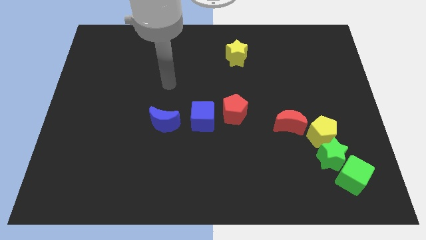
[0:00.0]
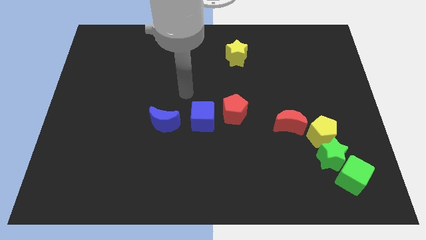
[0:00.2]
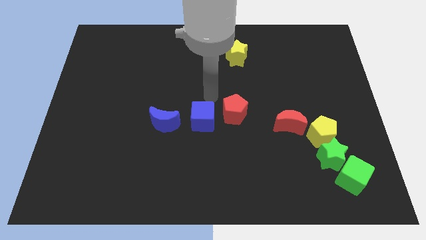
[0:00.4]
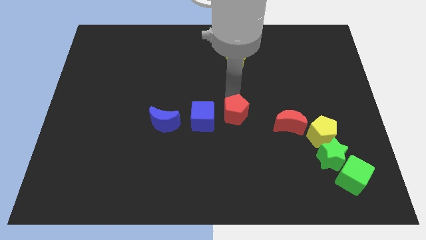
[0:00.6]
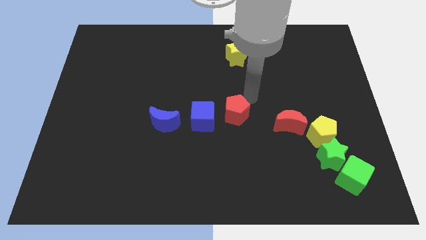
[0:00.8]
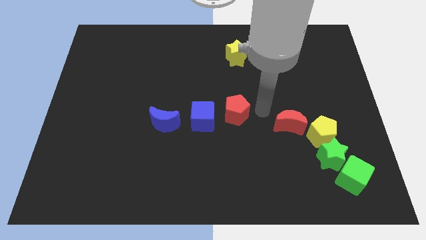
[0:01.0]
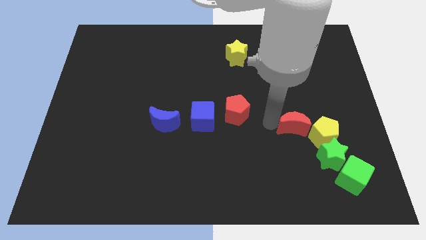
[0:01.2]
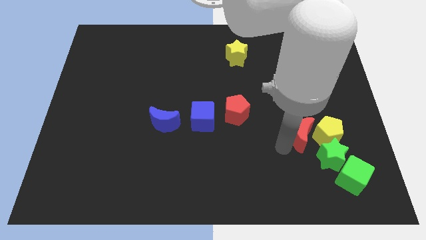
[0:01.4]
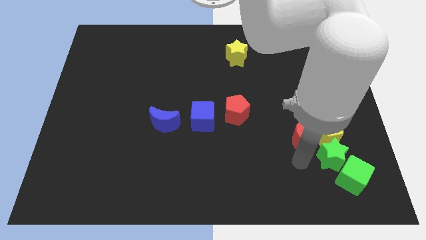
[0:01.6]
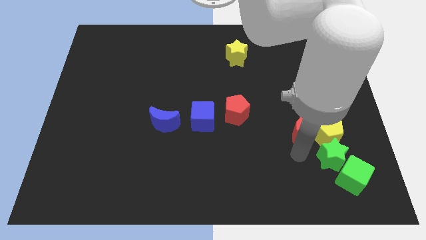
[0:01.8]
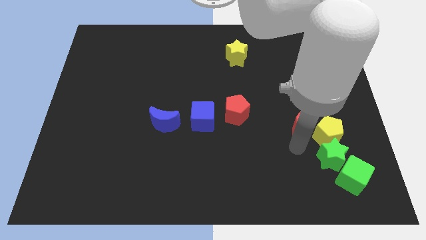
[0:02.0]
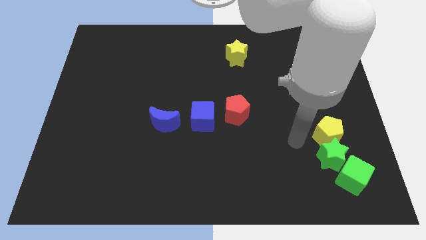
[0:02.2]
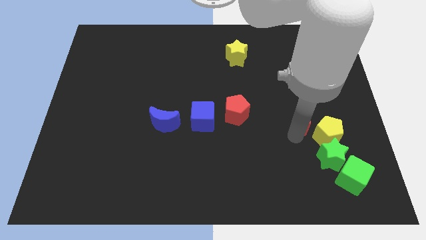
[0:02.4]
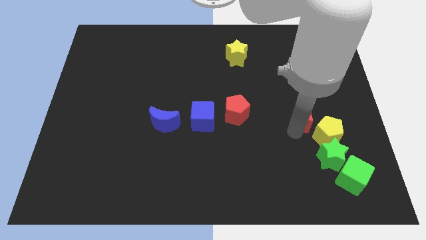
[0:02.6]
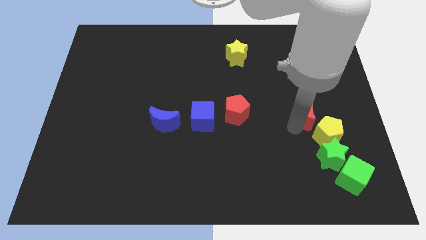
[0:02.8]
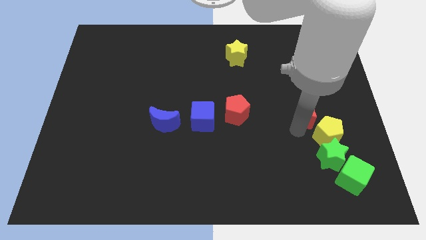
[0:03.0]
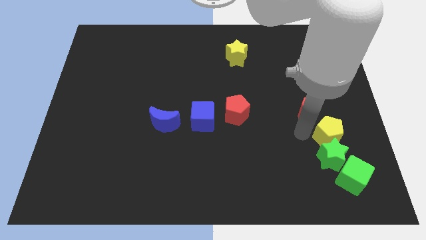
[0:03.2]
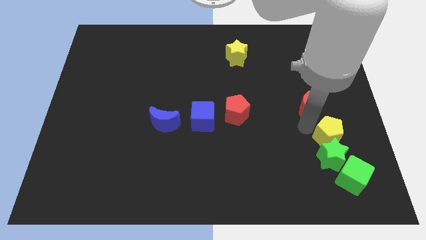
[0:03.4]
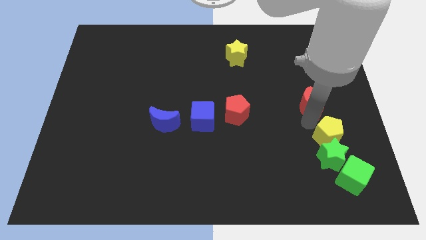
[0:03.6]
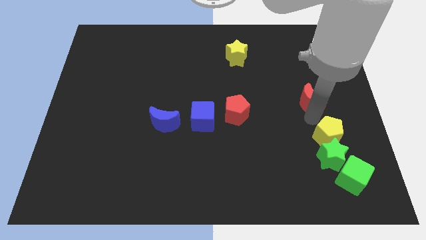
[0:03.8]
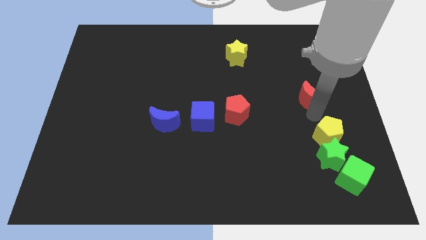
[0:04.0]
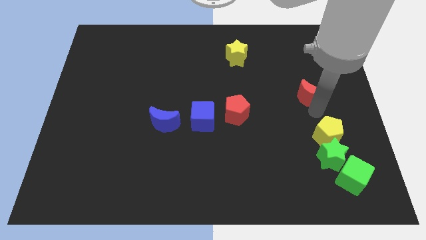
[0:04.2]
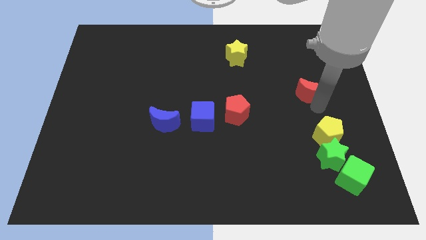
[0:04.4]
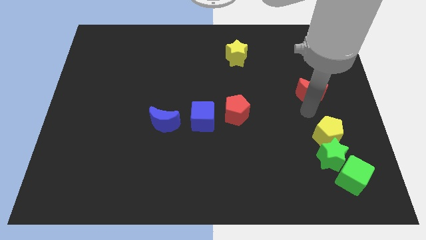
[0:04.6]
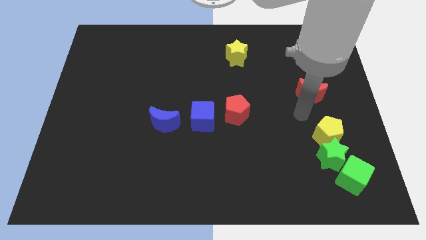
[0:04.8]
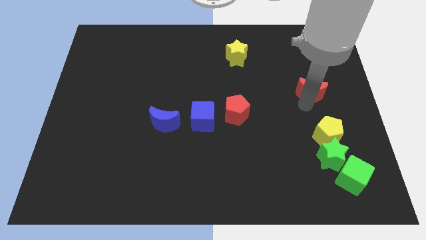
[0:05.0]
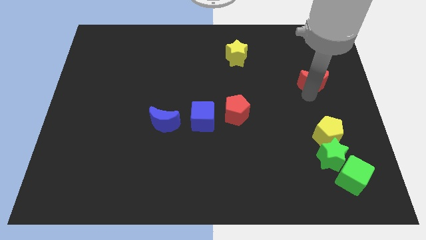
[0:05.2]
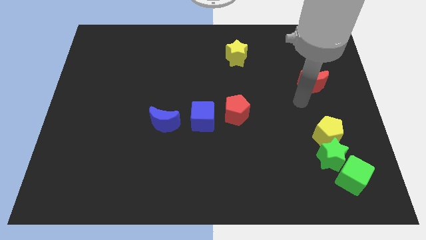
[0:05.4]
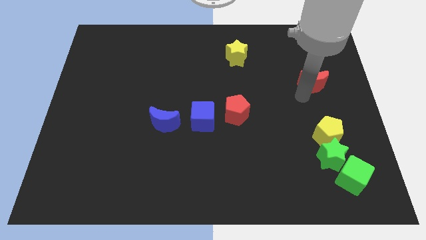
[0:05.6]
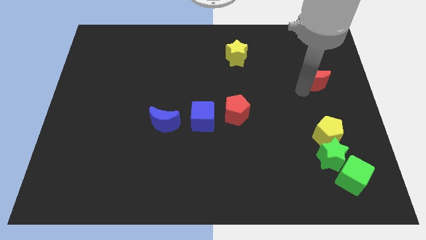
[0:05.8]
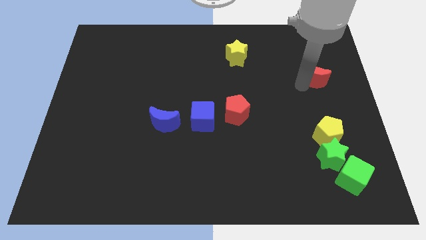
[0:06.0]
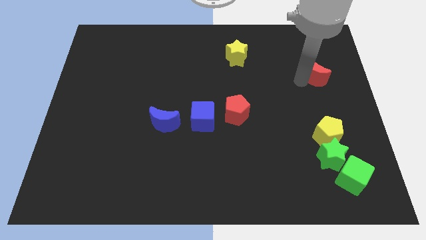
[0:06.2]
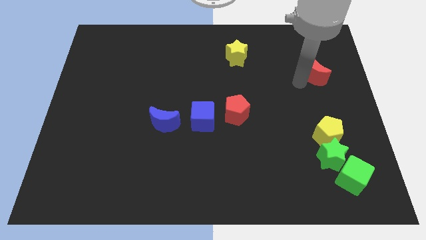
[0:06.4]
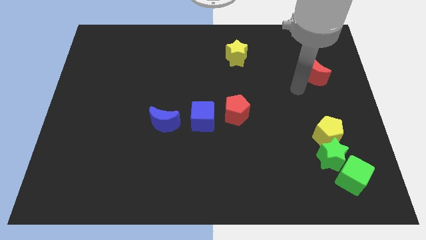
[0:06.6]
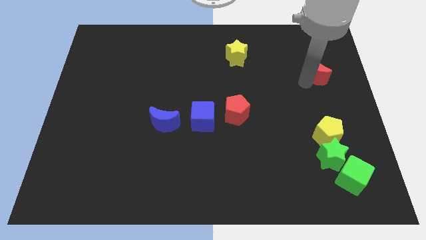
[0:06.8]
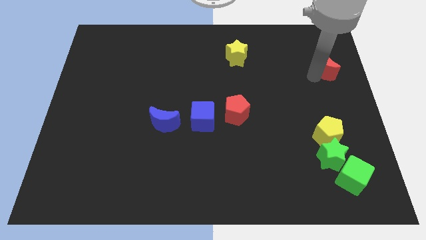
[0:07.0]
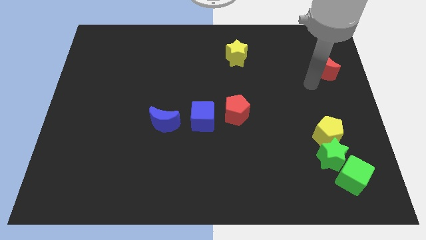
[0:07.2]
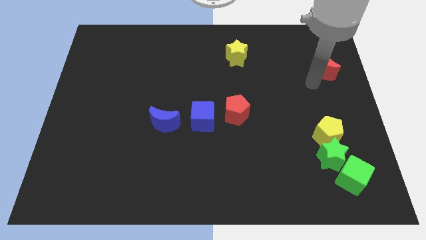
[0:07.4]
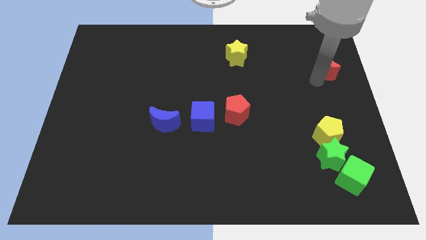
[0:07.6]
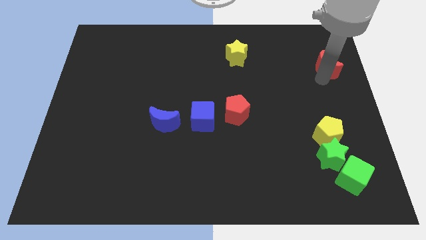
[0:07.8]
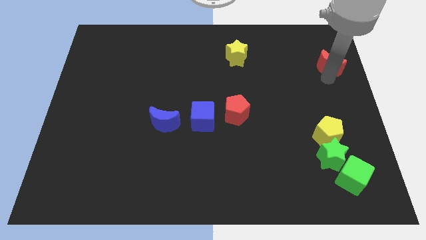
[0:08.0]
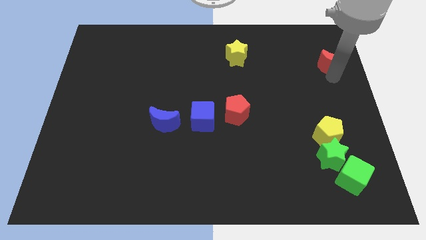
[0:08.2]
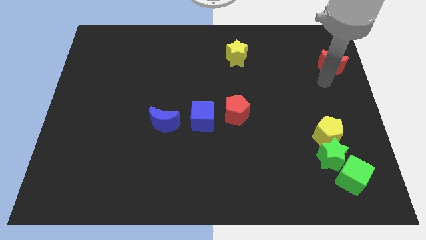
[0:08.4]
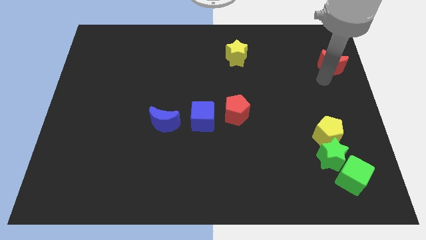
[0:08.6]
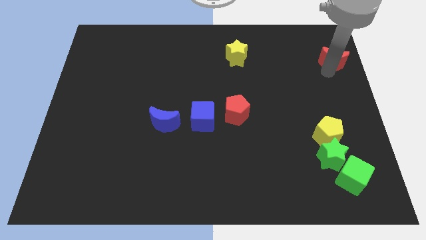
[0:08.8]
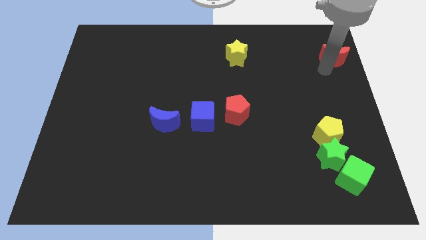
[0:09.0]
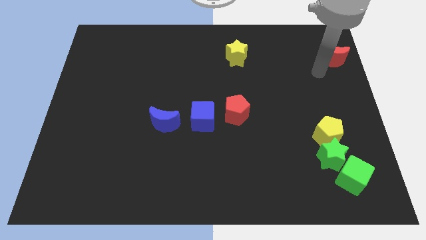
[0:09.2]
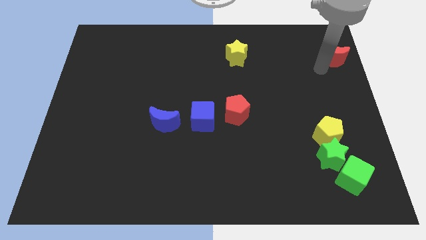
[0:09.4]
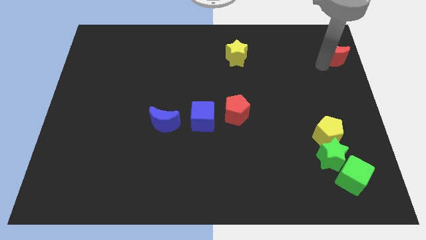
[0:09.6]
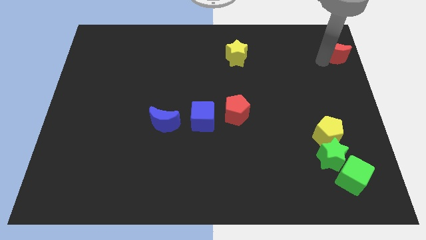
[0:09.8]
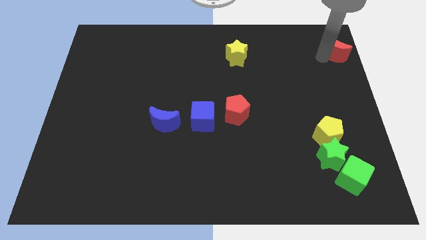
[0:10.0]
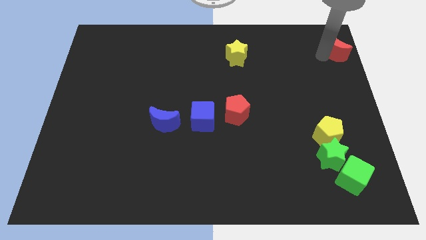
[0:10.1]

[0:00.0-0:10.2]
put the red moon to the top right

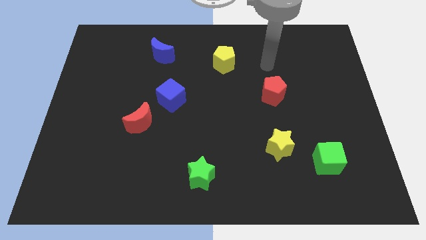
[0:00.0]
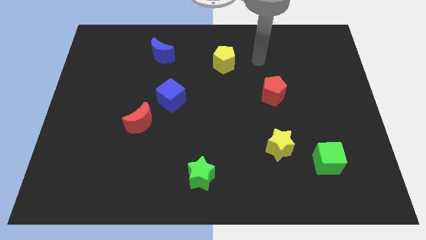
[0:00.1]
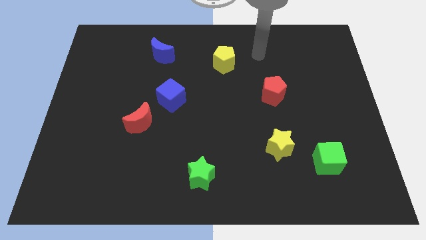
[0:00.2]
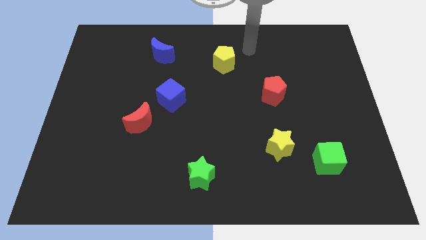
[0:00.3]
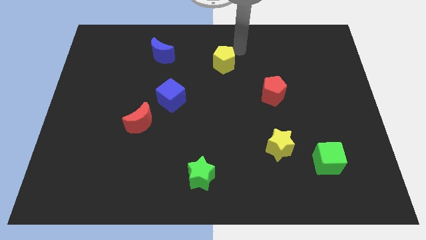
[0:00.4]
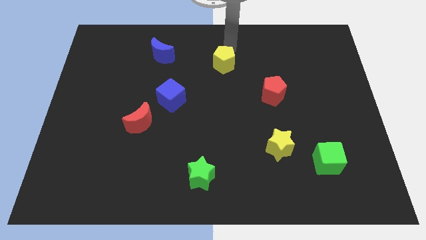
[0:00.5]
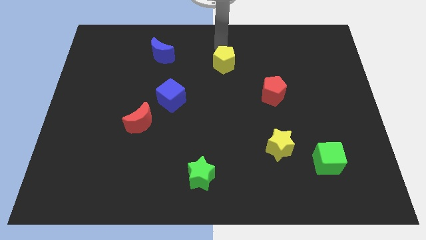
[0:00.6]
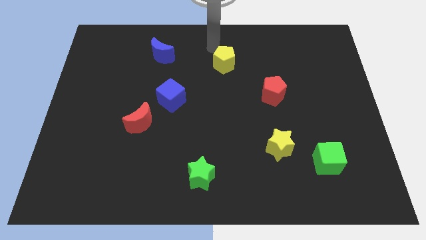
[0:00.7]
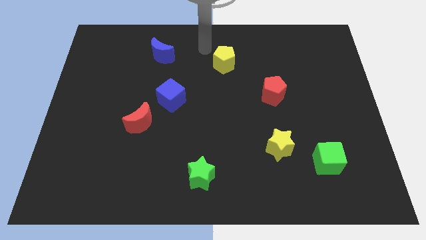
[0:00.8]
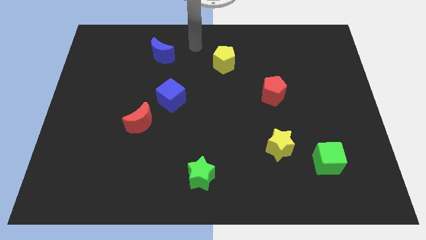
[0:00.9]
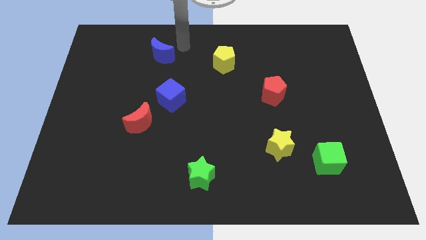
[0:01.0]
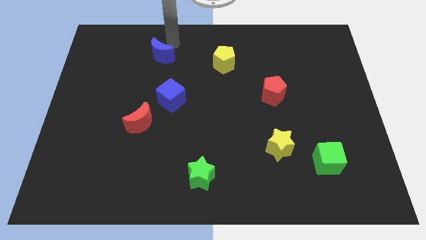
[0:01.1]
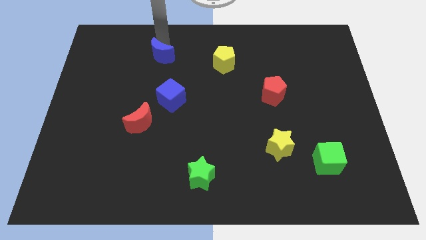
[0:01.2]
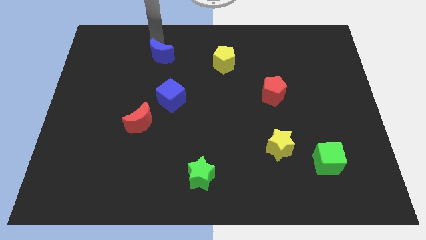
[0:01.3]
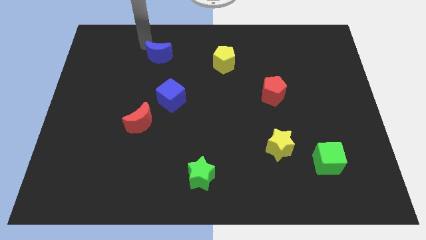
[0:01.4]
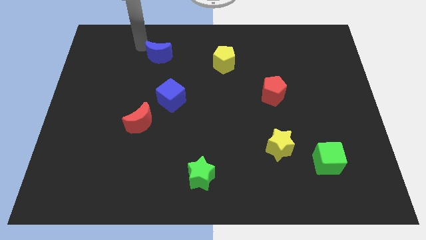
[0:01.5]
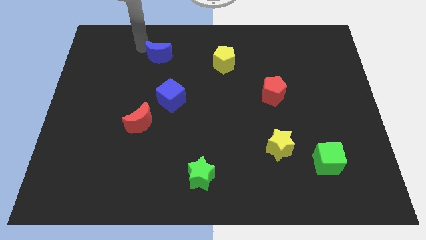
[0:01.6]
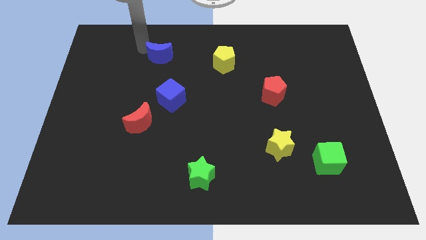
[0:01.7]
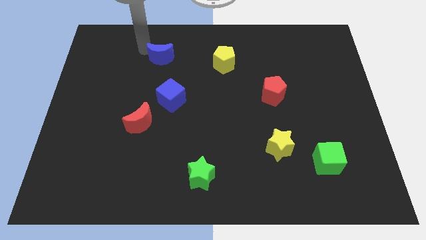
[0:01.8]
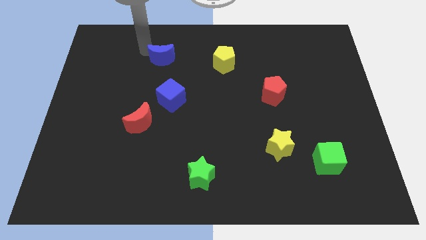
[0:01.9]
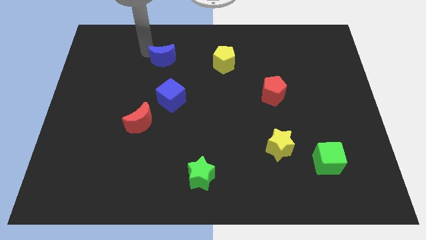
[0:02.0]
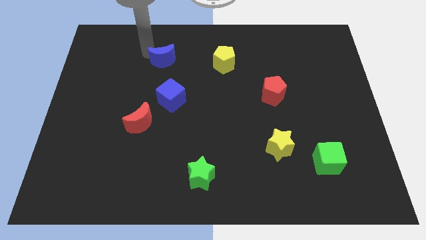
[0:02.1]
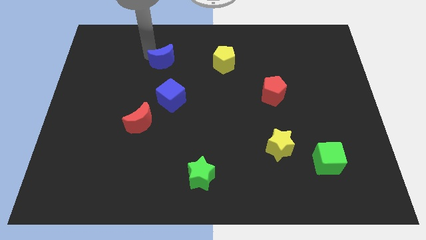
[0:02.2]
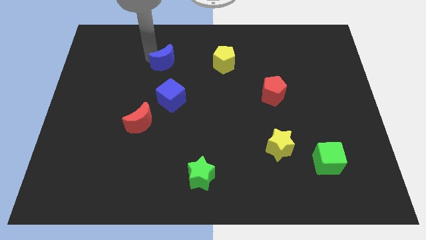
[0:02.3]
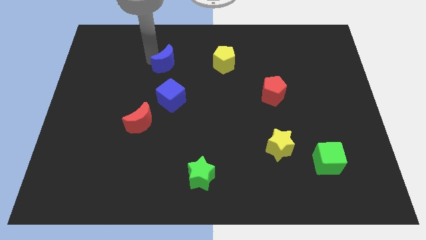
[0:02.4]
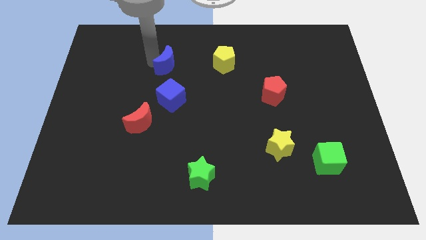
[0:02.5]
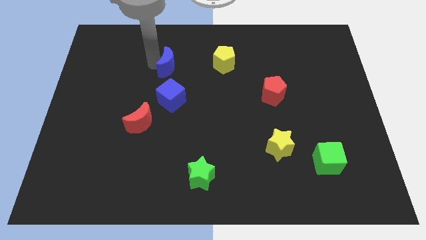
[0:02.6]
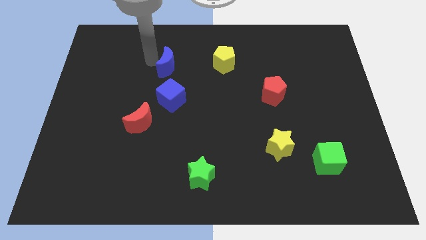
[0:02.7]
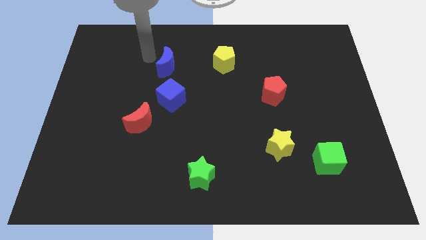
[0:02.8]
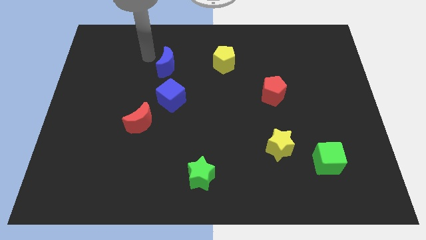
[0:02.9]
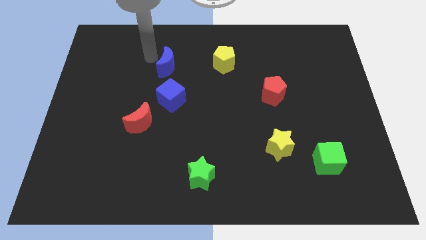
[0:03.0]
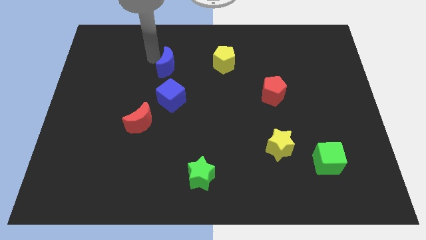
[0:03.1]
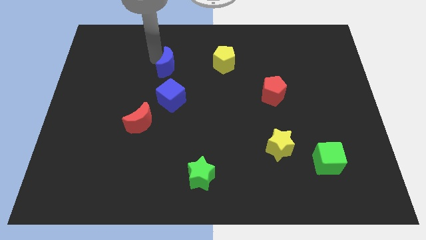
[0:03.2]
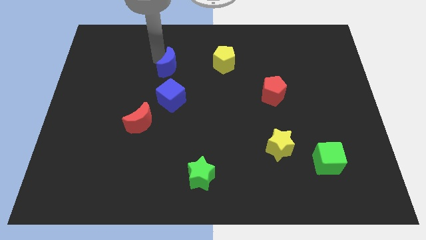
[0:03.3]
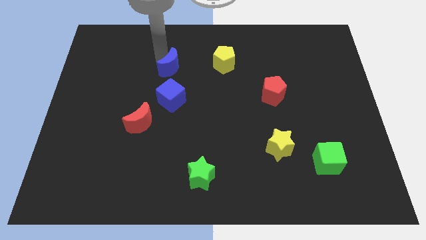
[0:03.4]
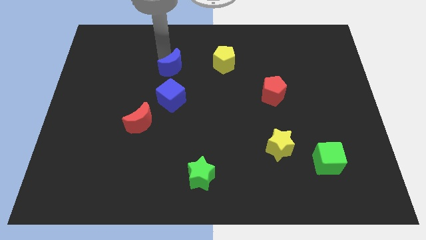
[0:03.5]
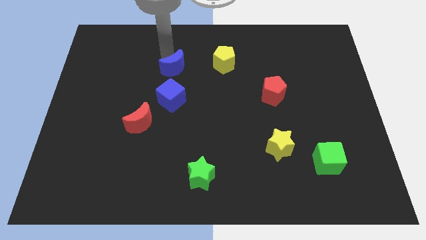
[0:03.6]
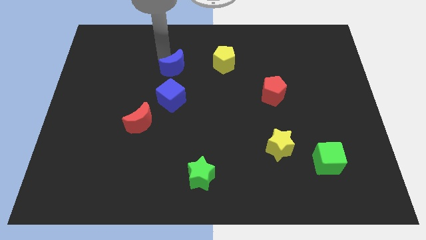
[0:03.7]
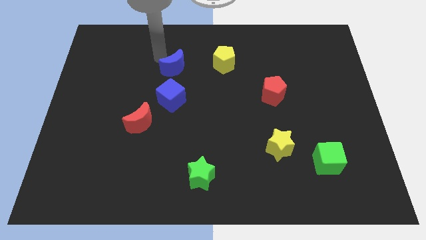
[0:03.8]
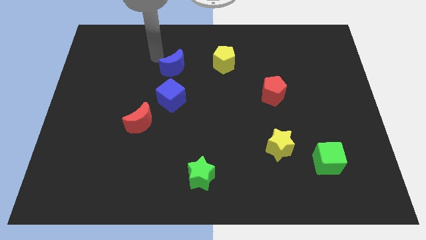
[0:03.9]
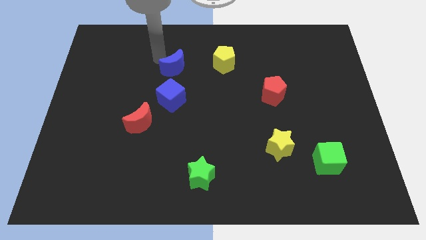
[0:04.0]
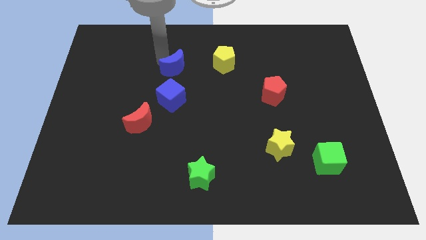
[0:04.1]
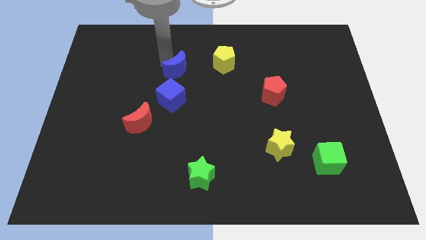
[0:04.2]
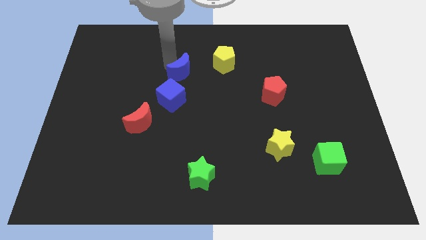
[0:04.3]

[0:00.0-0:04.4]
move the blue moon to the middle of the board
